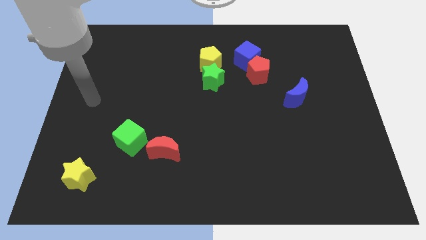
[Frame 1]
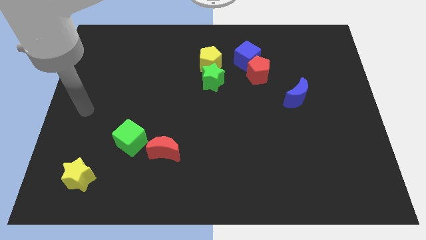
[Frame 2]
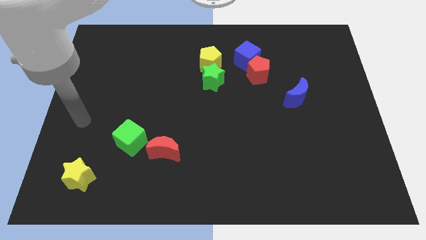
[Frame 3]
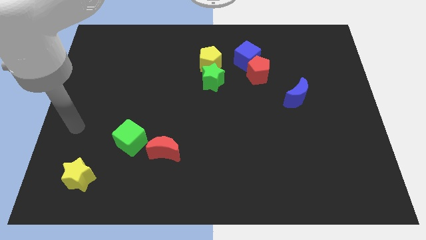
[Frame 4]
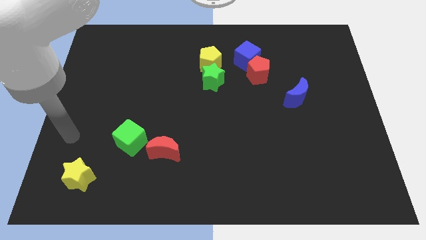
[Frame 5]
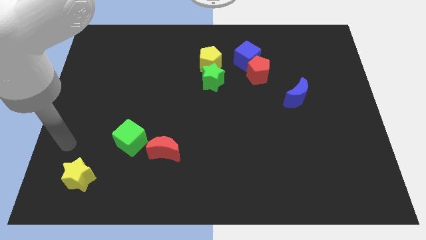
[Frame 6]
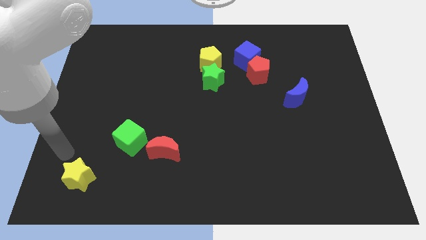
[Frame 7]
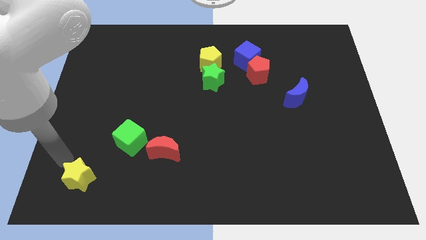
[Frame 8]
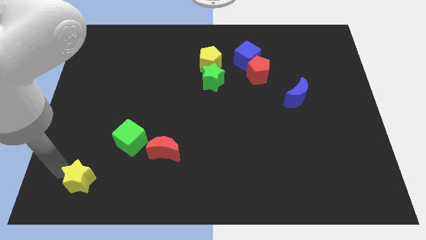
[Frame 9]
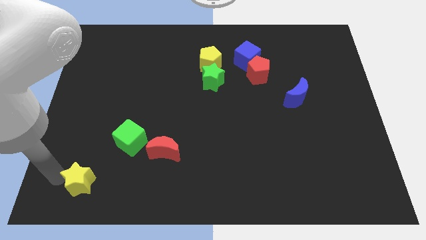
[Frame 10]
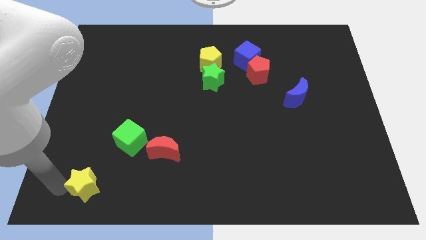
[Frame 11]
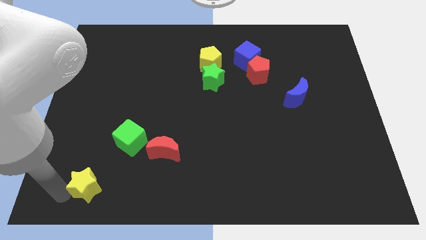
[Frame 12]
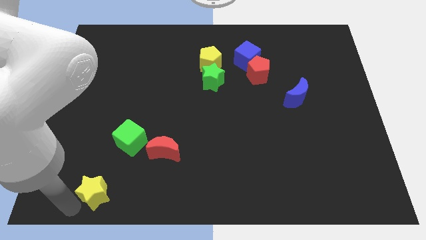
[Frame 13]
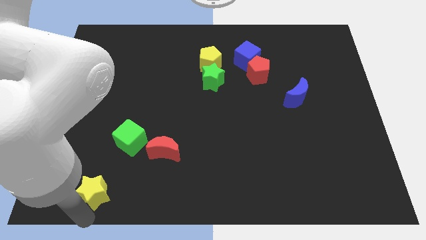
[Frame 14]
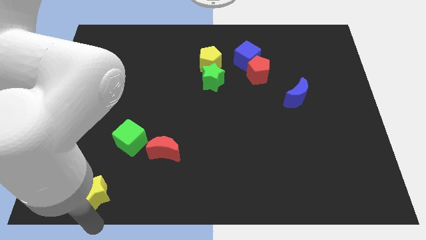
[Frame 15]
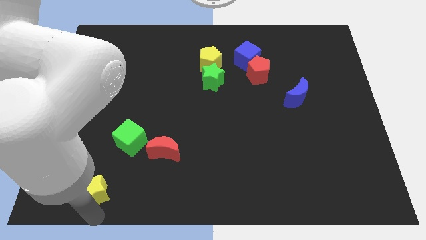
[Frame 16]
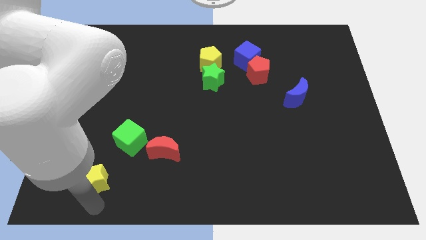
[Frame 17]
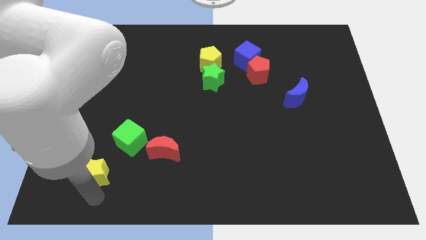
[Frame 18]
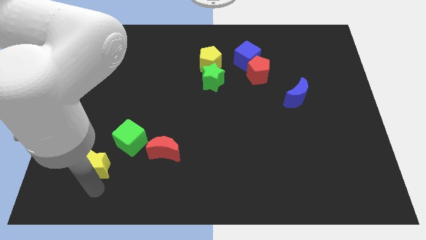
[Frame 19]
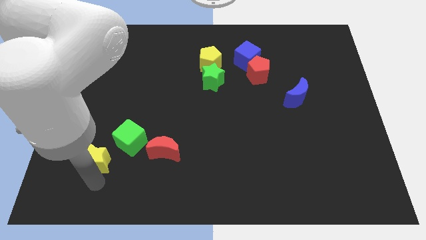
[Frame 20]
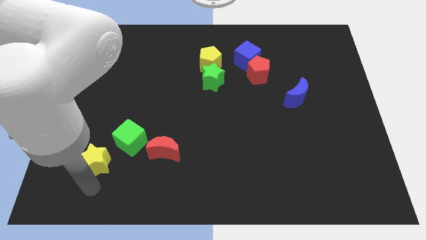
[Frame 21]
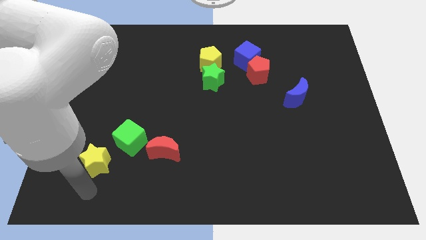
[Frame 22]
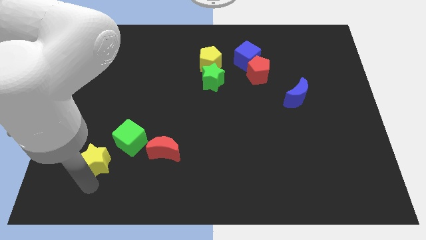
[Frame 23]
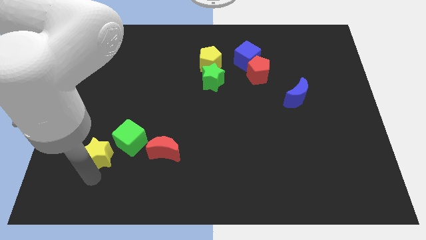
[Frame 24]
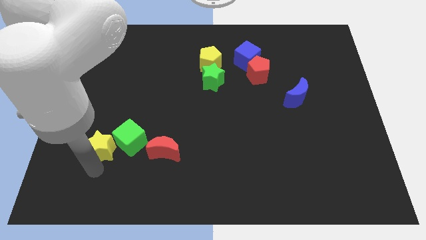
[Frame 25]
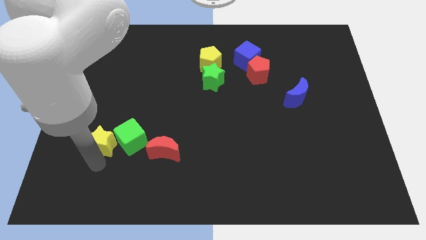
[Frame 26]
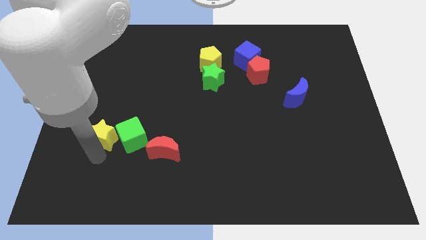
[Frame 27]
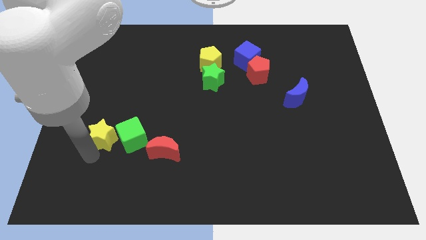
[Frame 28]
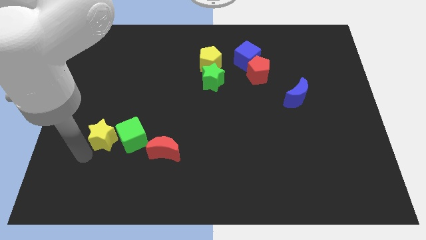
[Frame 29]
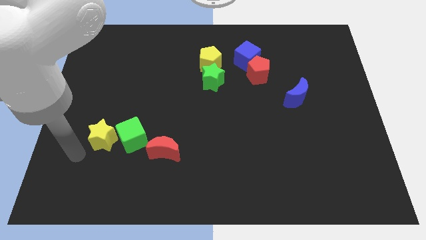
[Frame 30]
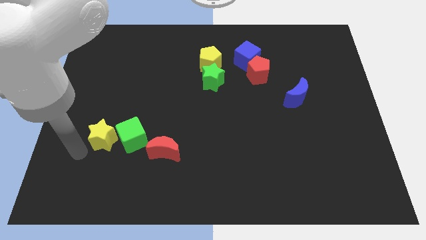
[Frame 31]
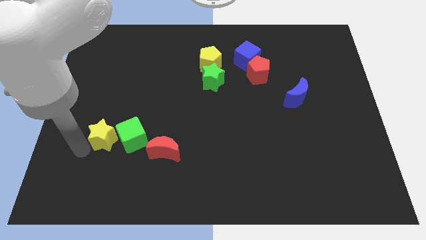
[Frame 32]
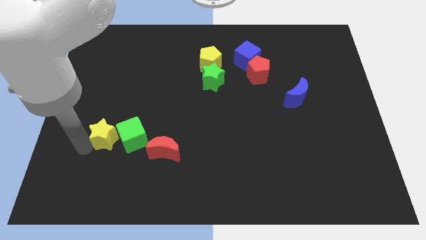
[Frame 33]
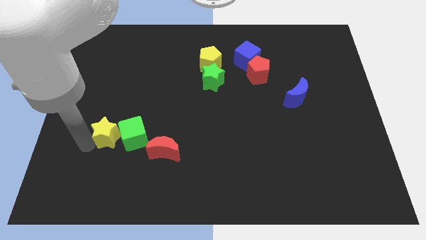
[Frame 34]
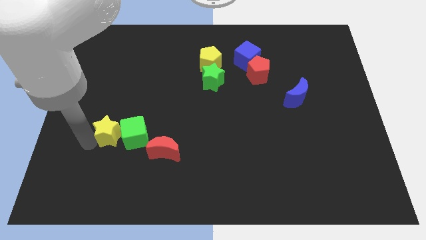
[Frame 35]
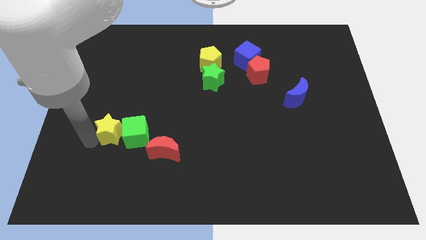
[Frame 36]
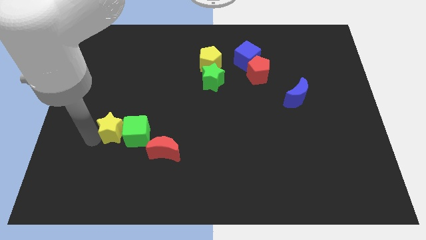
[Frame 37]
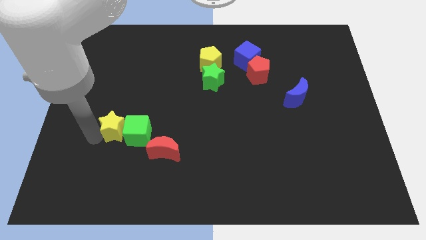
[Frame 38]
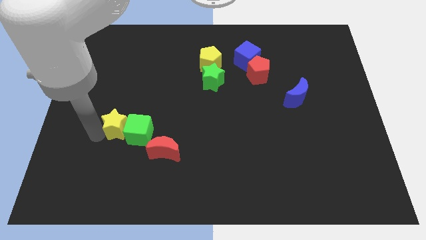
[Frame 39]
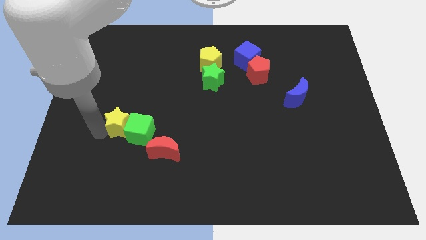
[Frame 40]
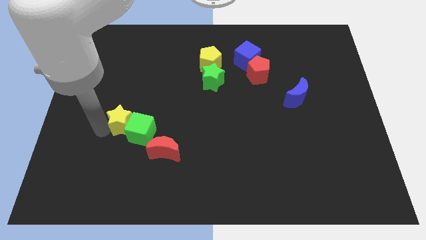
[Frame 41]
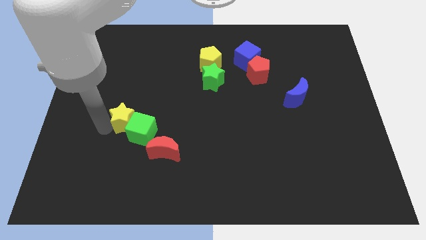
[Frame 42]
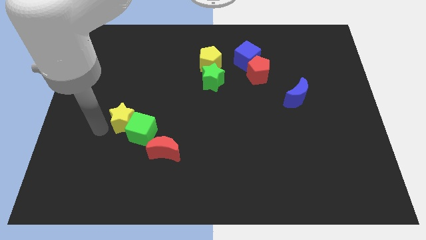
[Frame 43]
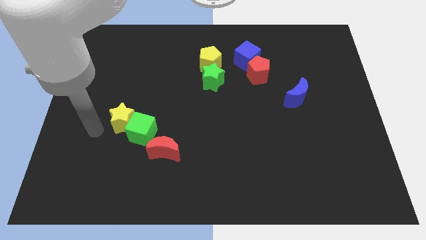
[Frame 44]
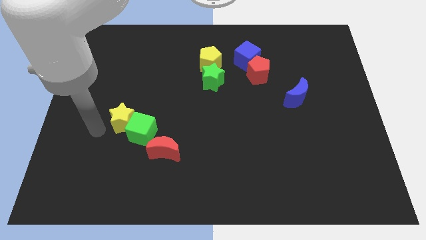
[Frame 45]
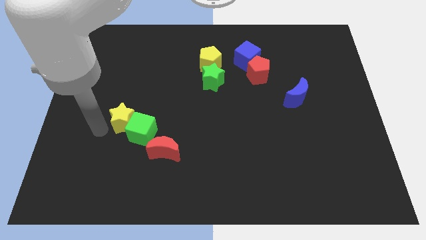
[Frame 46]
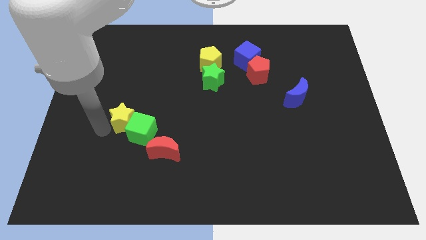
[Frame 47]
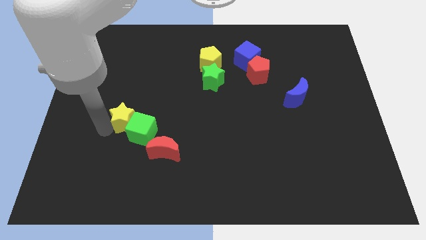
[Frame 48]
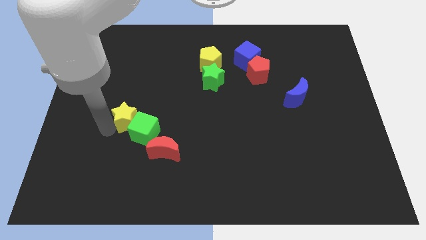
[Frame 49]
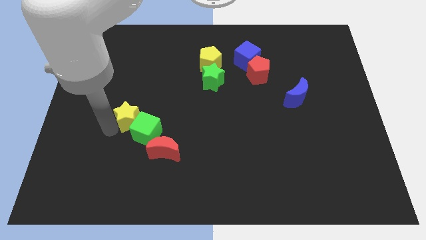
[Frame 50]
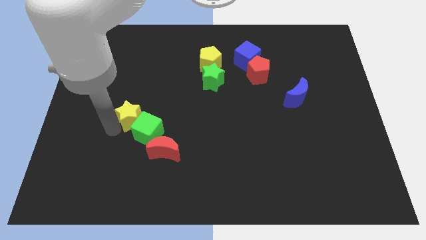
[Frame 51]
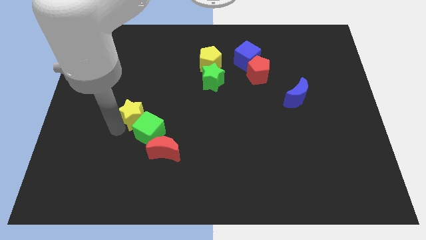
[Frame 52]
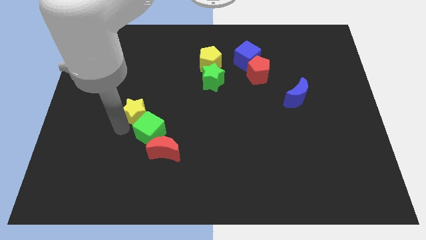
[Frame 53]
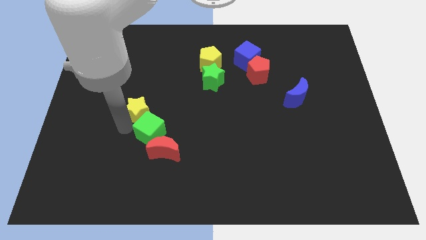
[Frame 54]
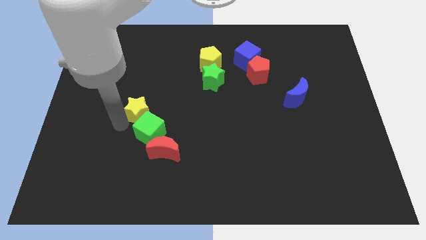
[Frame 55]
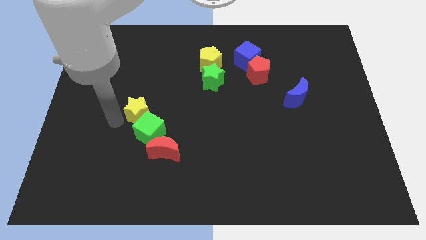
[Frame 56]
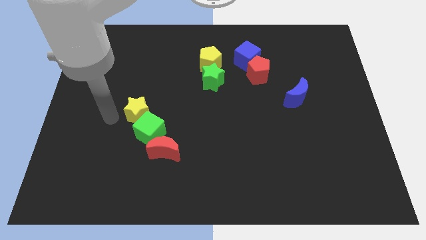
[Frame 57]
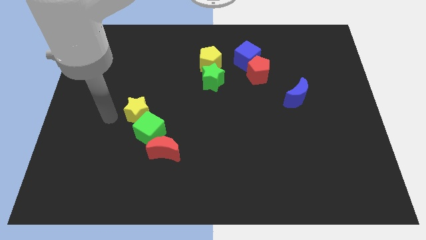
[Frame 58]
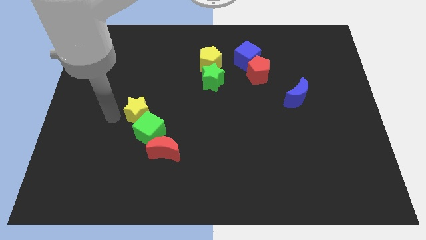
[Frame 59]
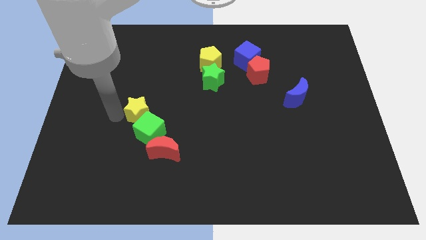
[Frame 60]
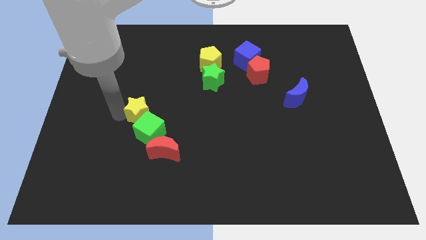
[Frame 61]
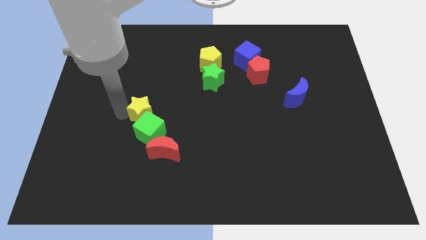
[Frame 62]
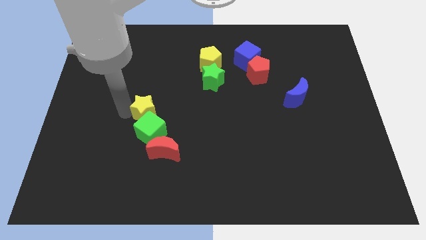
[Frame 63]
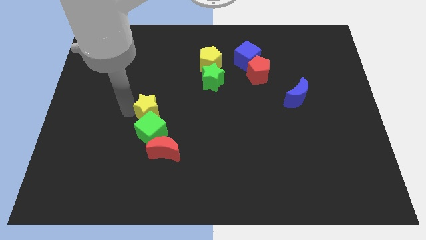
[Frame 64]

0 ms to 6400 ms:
slide the yellow star upwards and then right

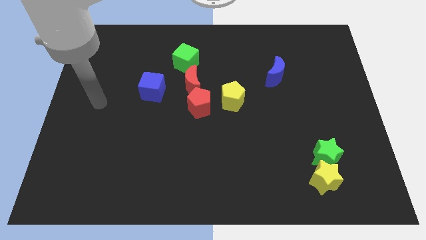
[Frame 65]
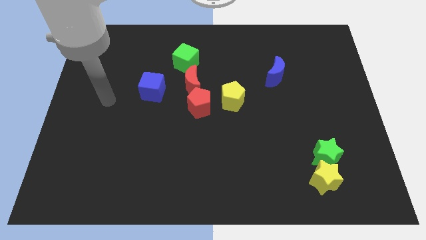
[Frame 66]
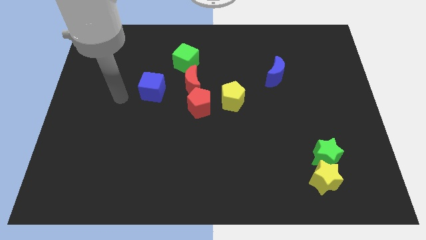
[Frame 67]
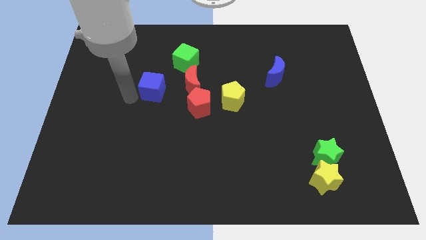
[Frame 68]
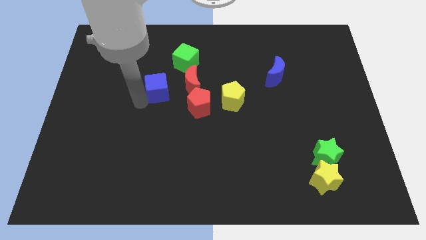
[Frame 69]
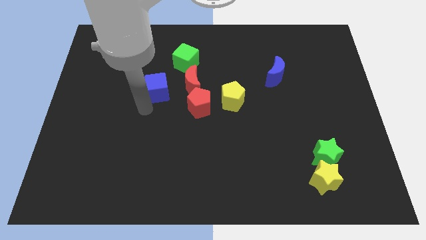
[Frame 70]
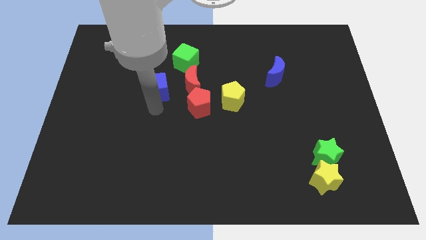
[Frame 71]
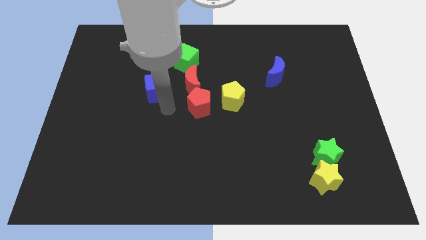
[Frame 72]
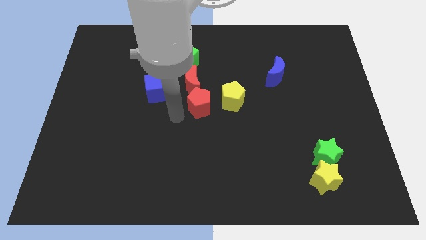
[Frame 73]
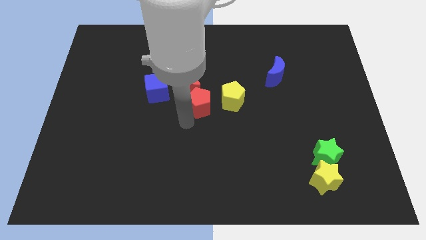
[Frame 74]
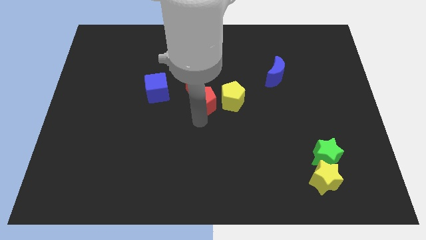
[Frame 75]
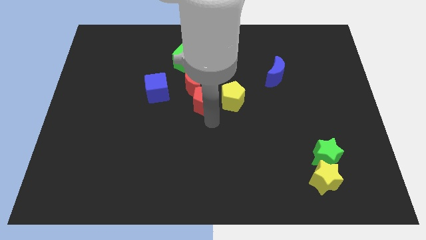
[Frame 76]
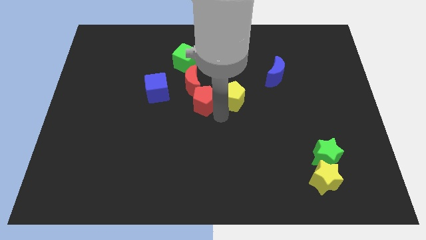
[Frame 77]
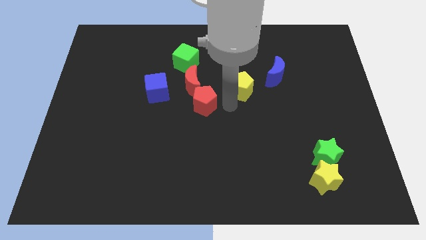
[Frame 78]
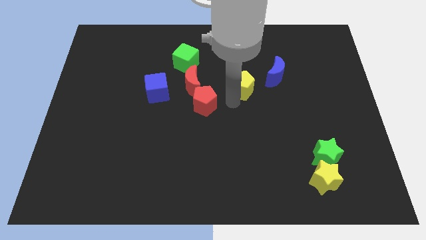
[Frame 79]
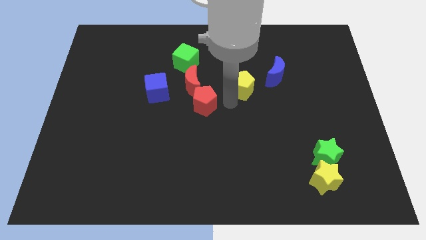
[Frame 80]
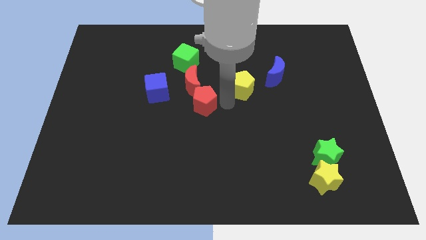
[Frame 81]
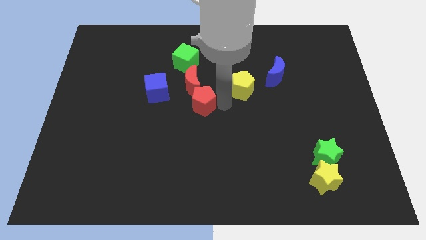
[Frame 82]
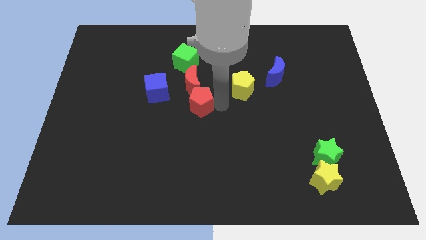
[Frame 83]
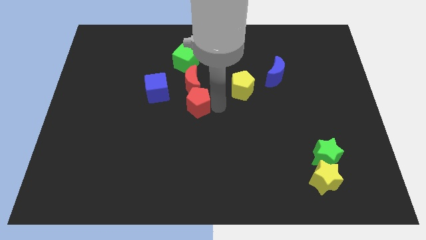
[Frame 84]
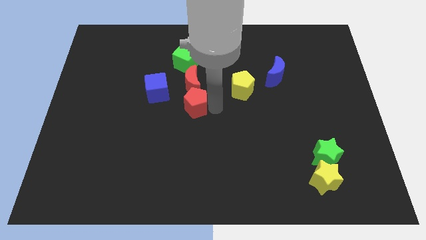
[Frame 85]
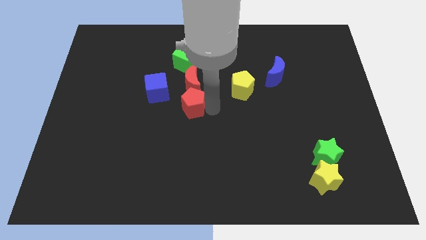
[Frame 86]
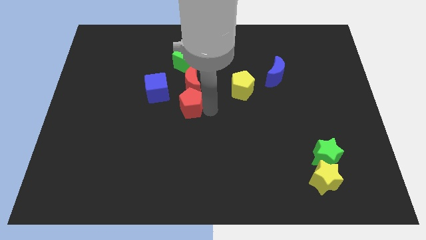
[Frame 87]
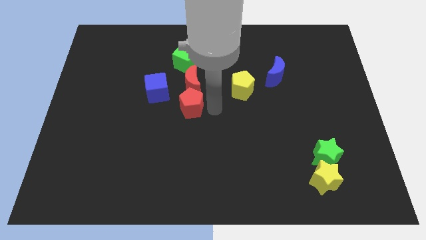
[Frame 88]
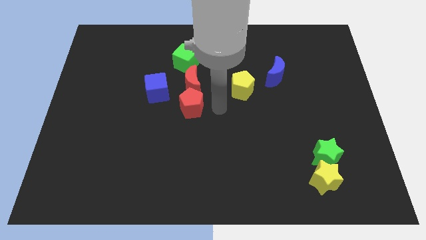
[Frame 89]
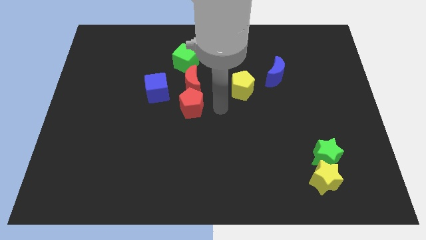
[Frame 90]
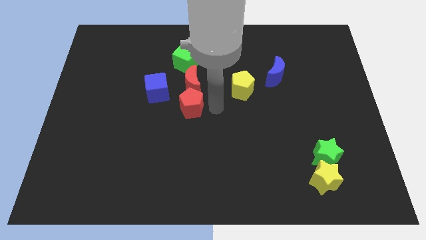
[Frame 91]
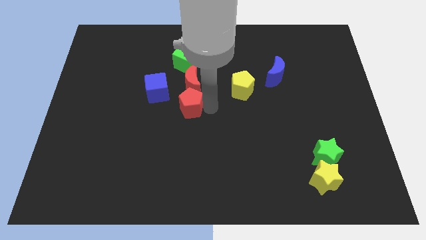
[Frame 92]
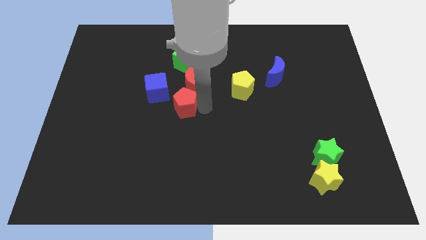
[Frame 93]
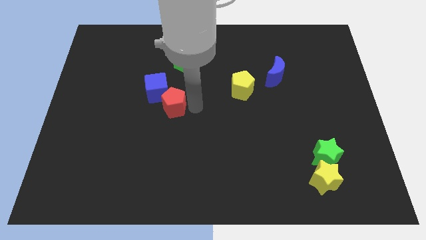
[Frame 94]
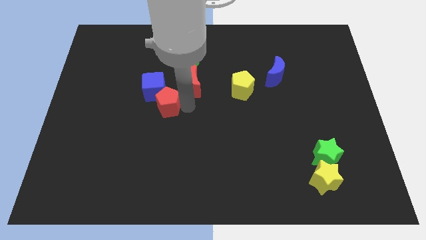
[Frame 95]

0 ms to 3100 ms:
slide the red pentagon left a little
